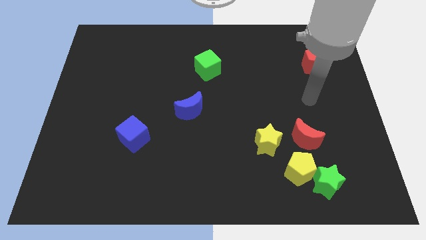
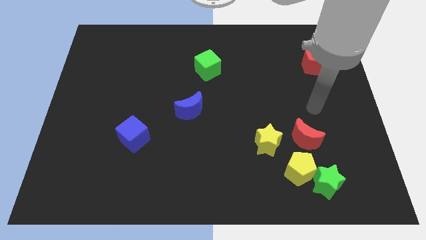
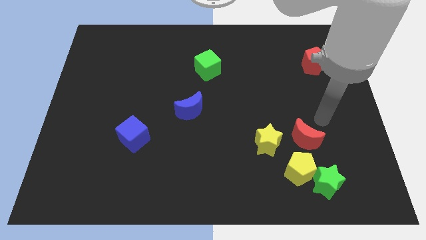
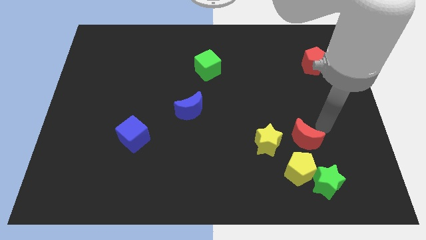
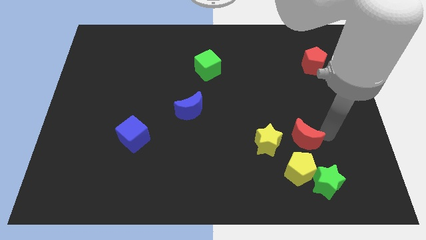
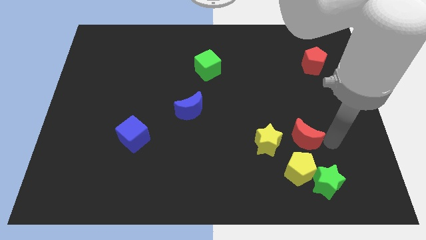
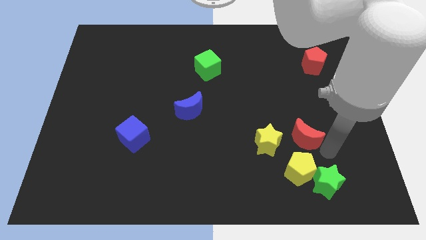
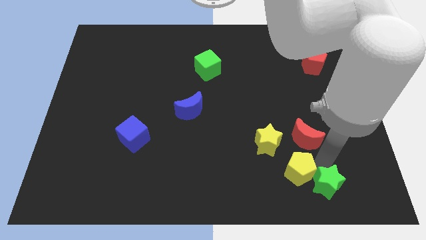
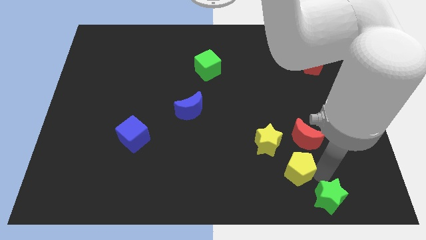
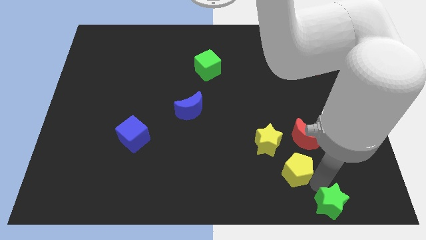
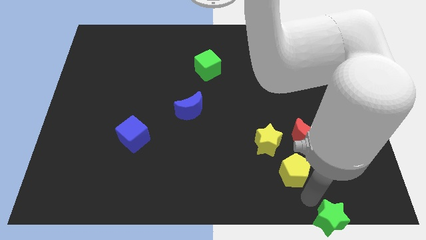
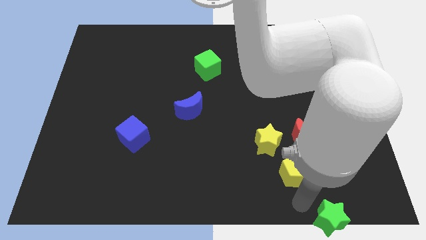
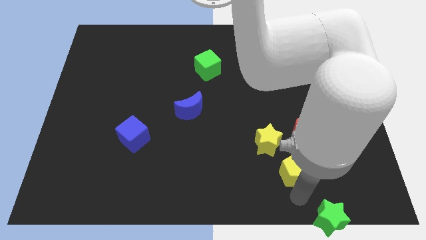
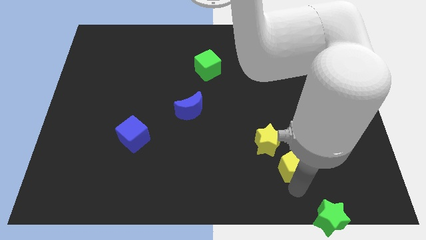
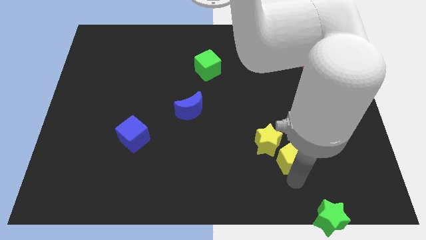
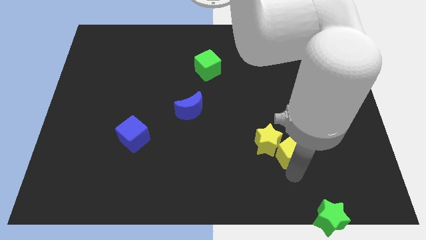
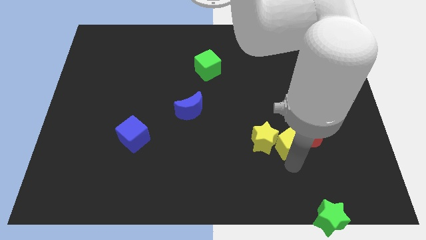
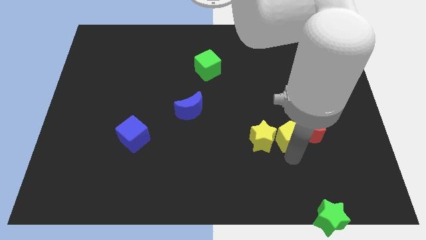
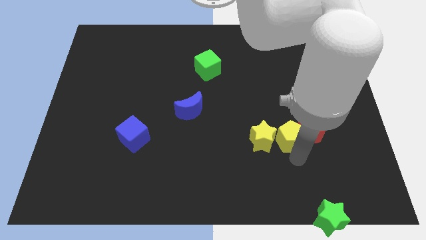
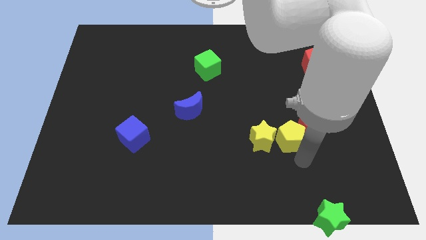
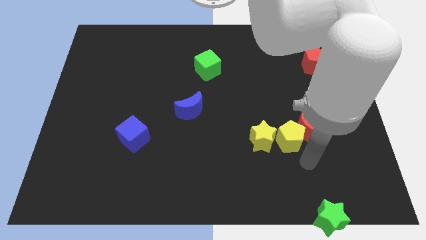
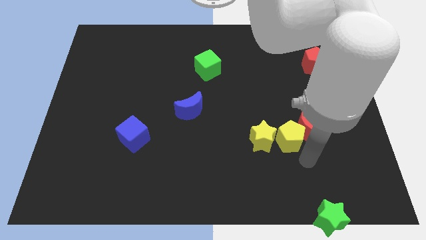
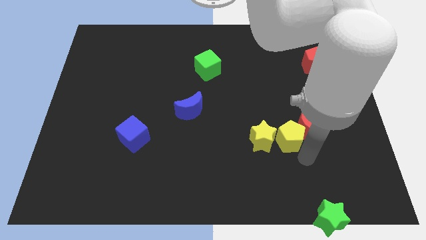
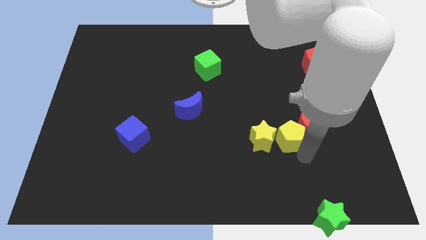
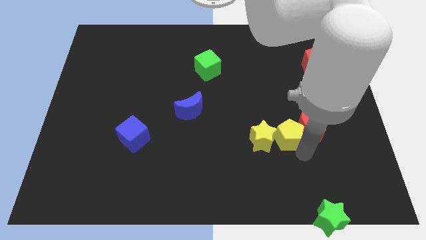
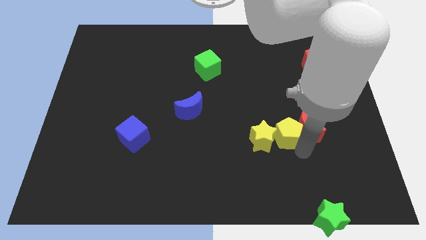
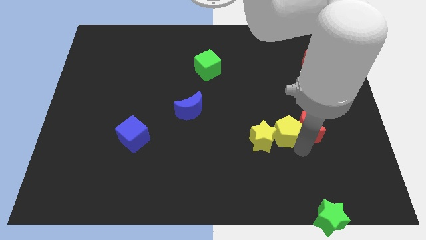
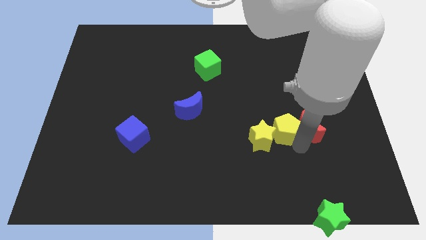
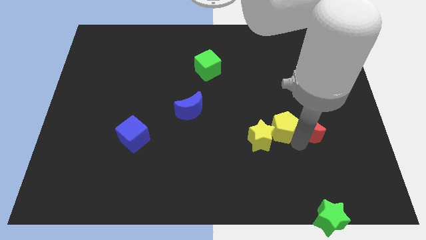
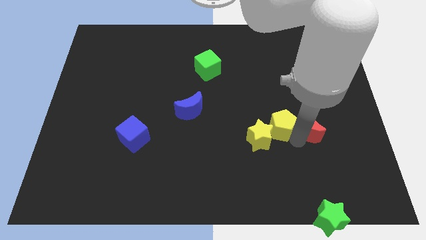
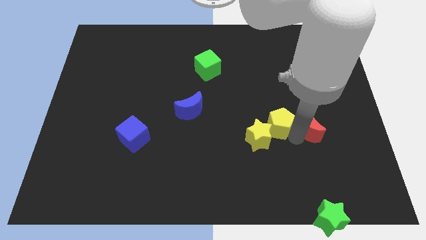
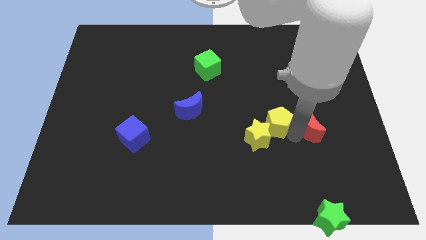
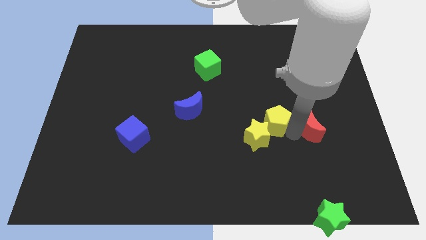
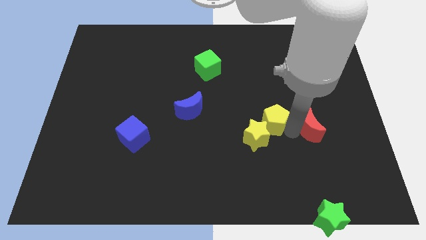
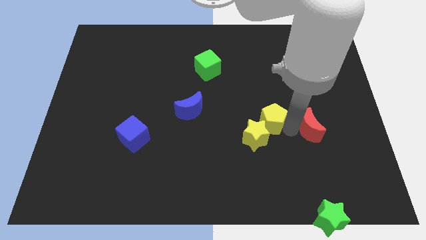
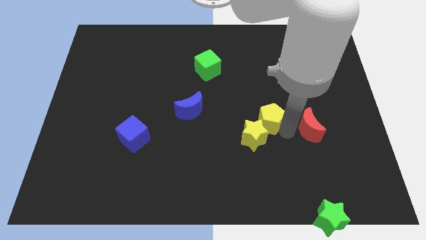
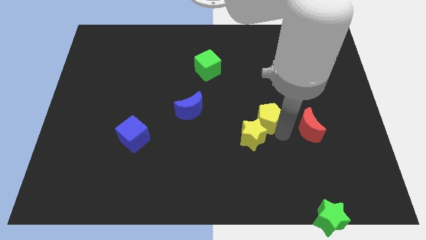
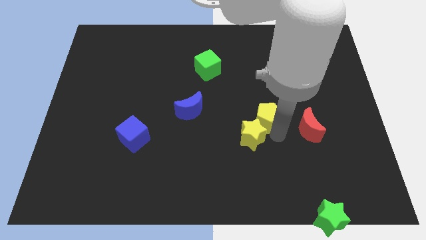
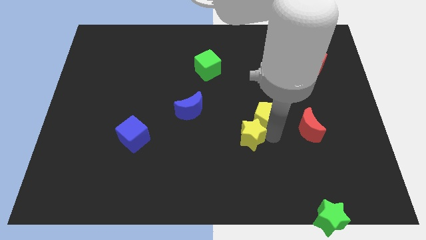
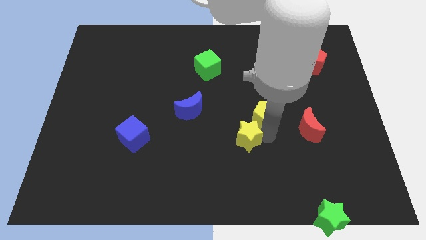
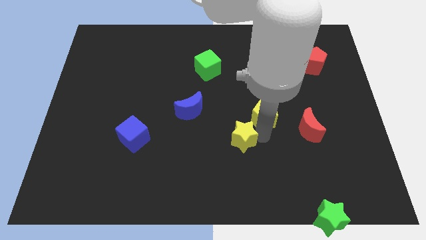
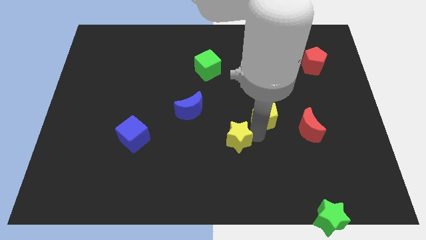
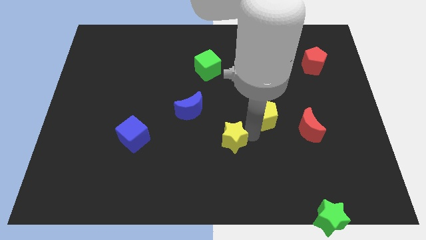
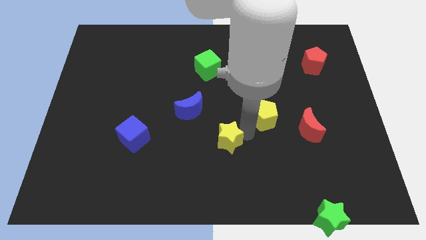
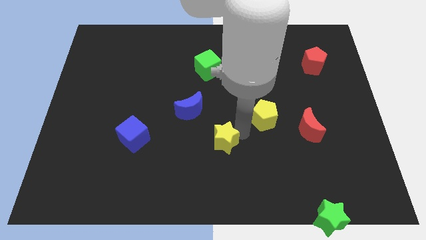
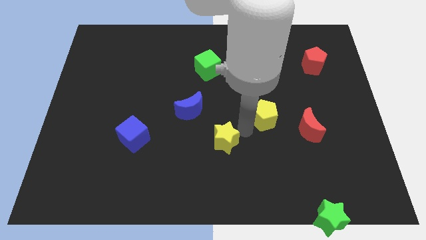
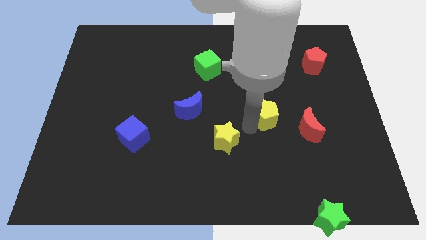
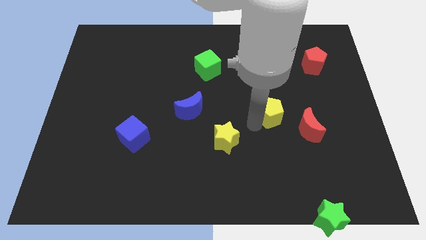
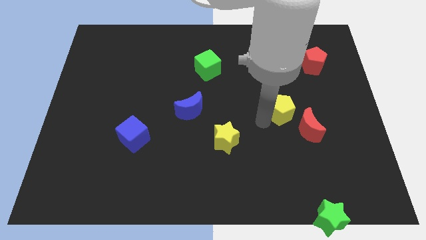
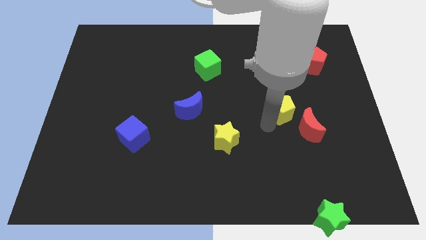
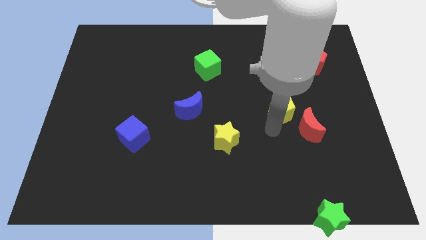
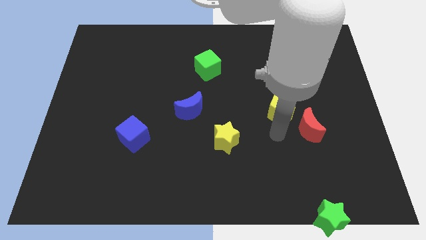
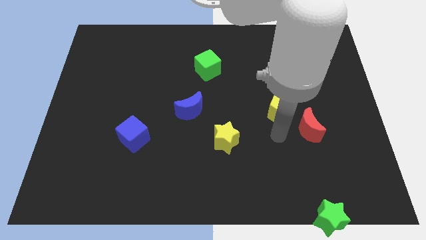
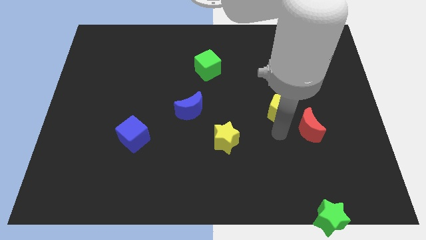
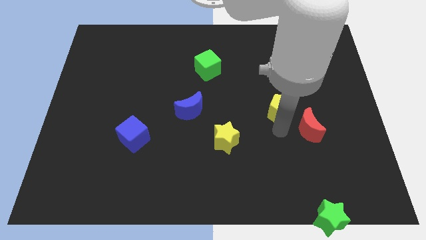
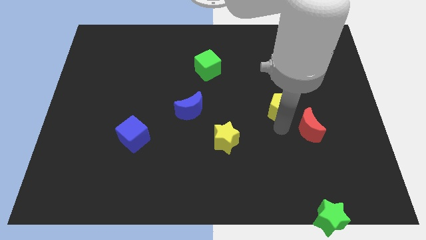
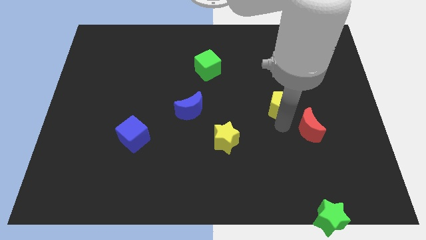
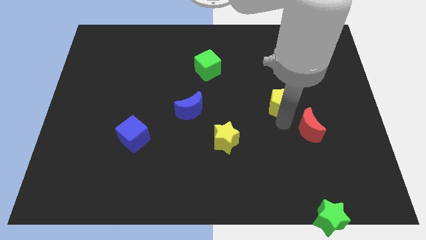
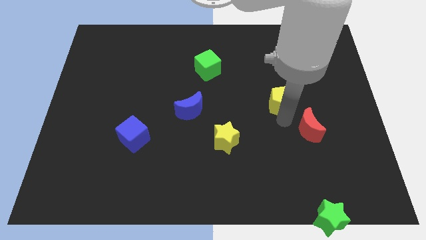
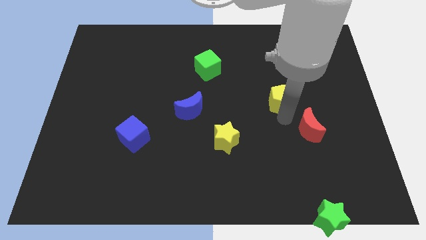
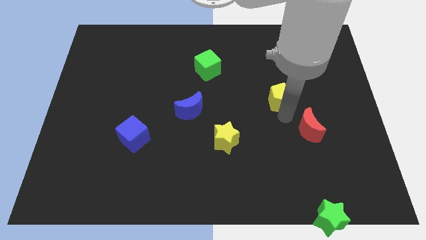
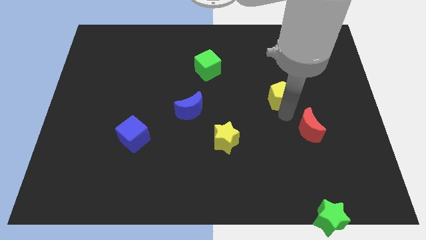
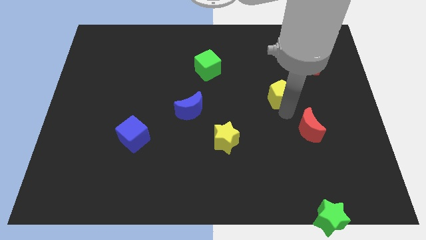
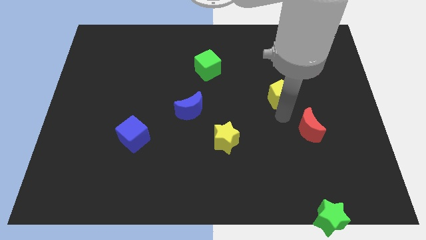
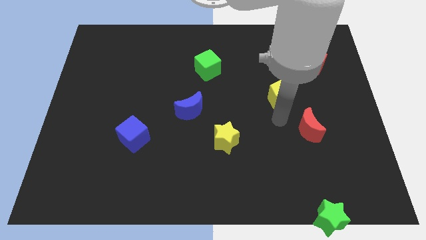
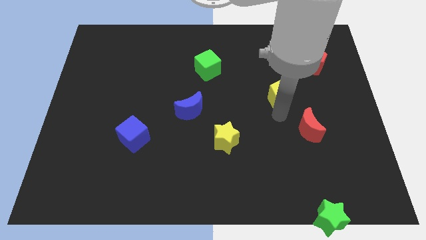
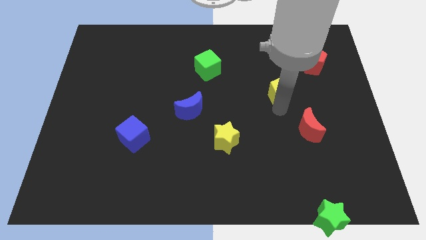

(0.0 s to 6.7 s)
push the yellow pentagon upwards

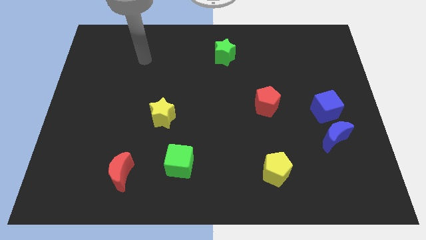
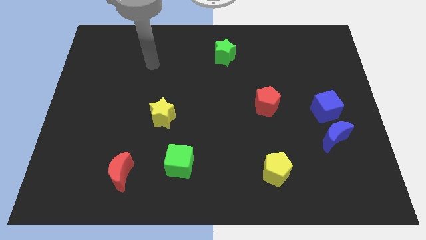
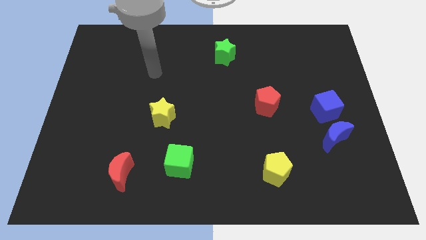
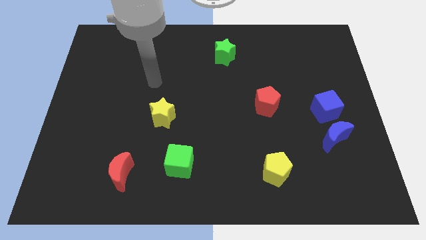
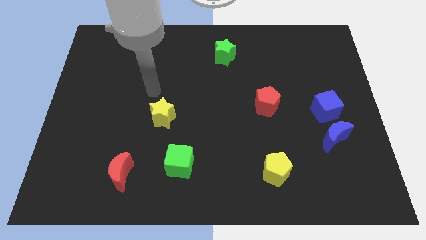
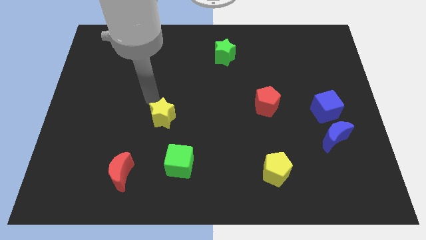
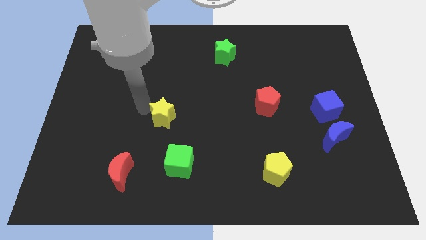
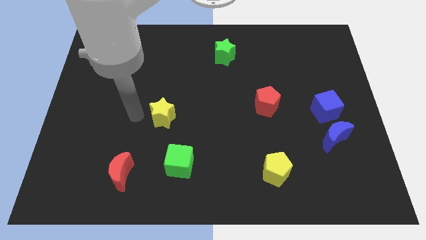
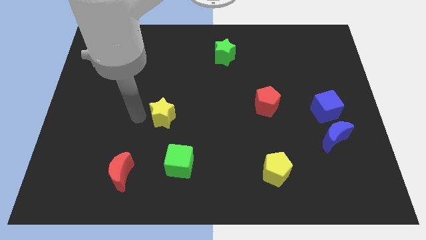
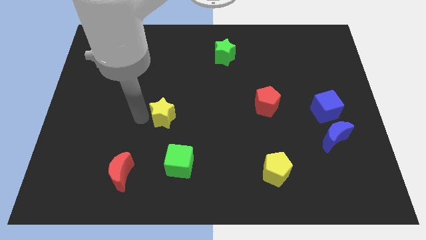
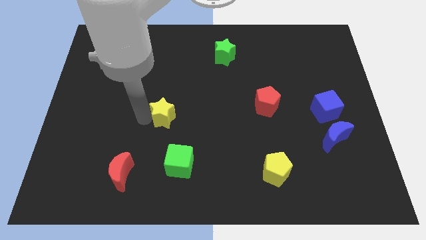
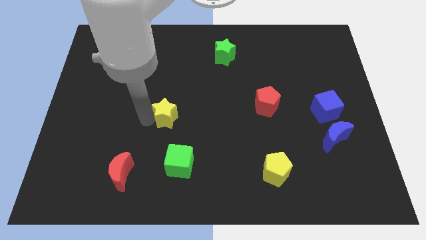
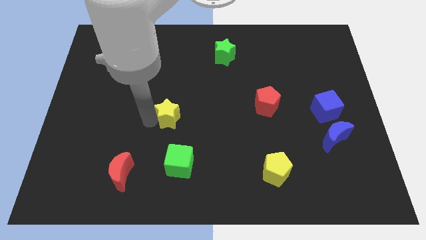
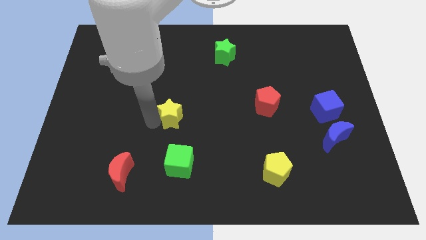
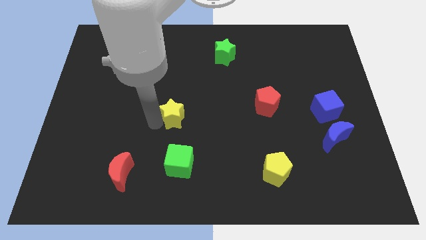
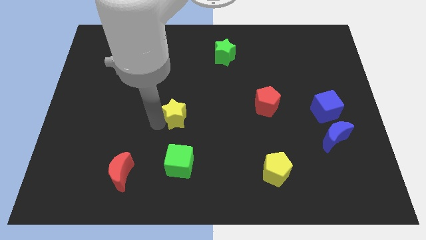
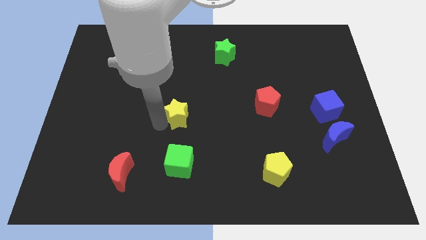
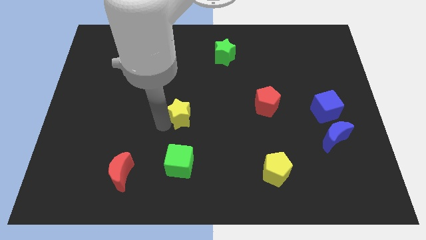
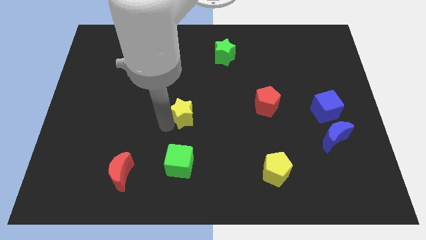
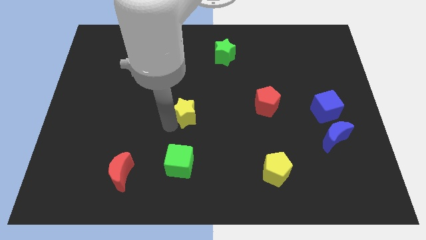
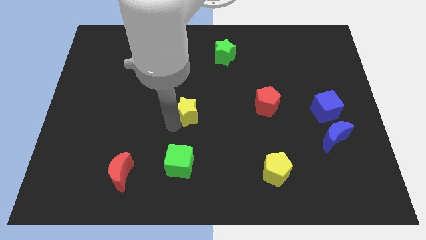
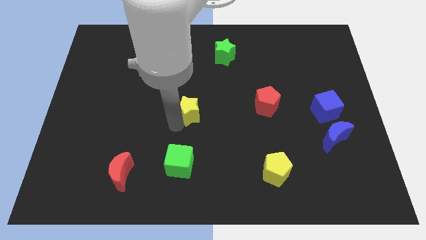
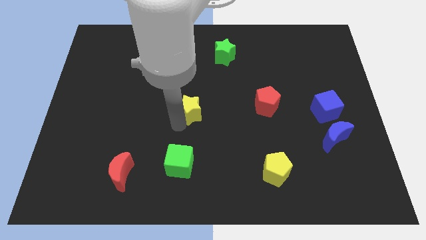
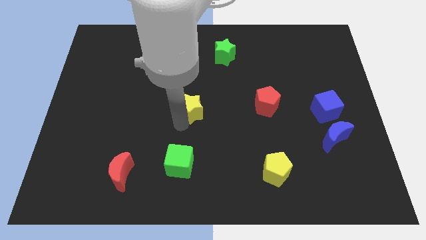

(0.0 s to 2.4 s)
slightly push the yellow star right
